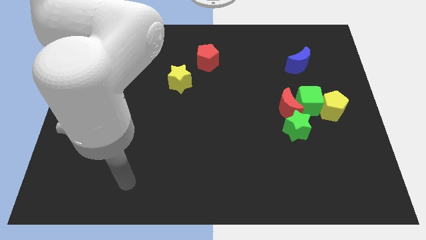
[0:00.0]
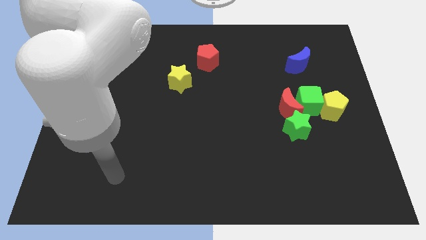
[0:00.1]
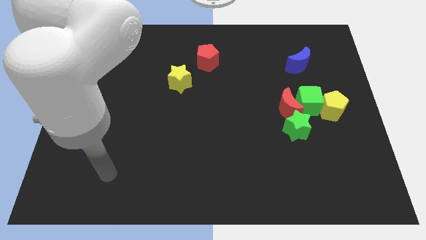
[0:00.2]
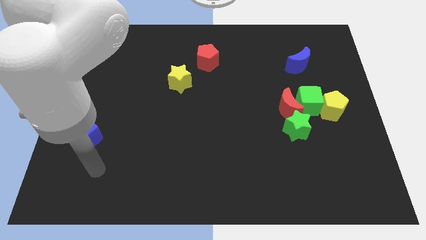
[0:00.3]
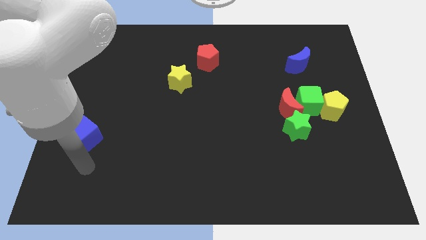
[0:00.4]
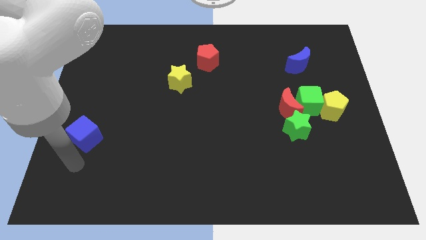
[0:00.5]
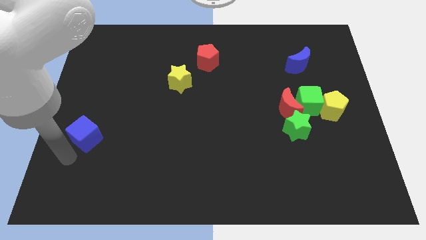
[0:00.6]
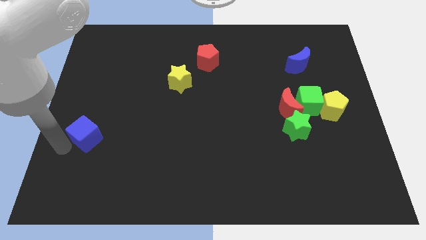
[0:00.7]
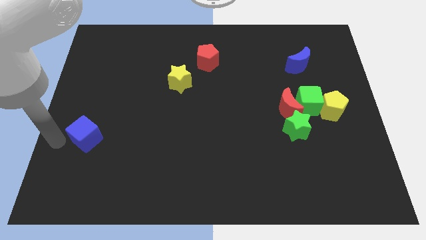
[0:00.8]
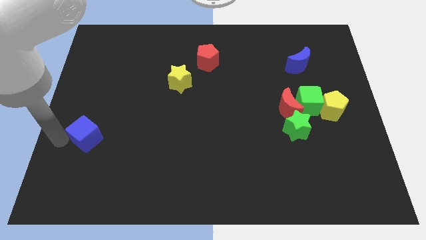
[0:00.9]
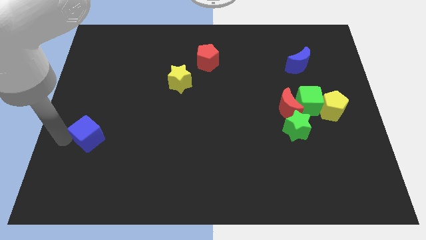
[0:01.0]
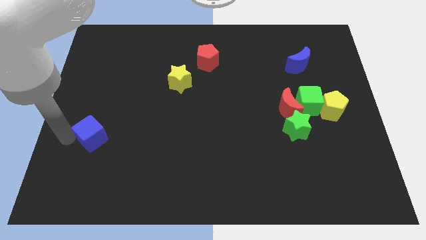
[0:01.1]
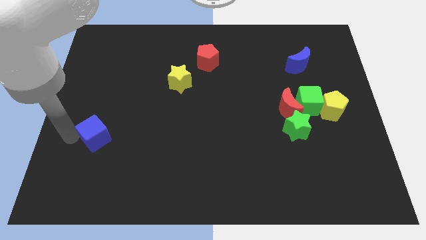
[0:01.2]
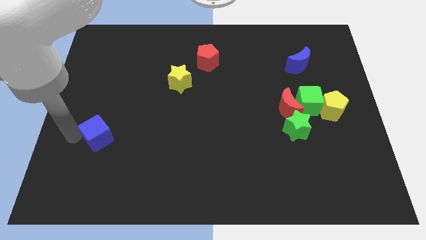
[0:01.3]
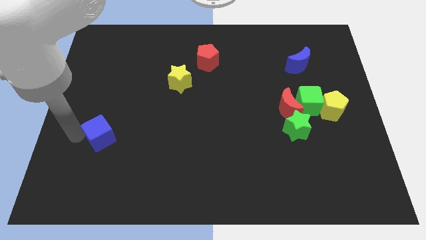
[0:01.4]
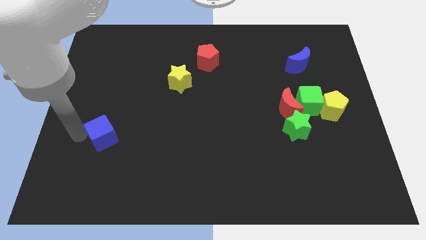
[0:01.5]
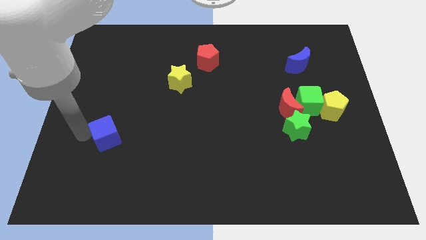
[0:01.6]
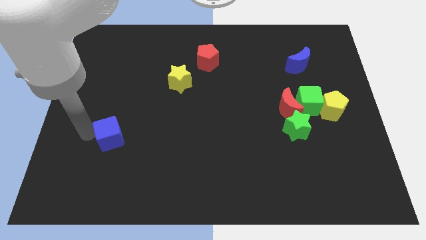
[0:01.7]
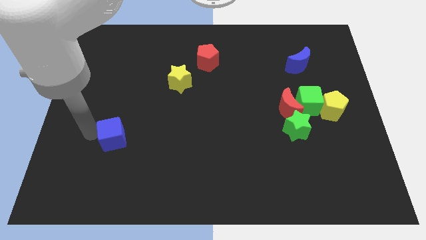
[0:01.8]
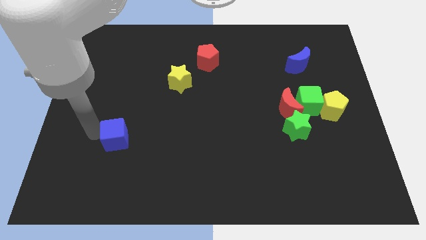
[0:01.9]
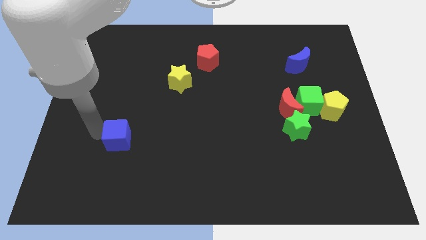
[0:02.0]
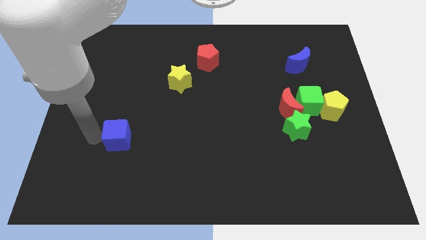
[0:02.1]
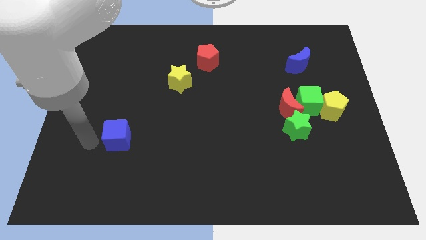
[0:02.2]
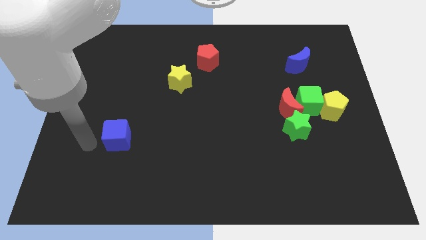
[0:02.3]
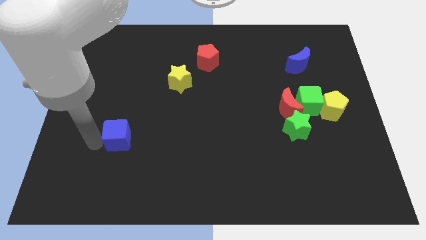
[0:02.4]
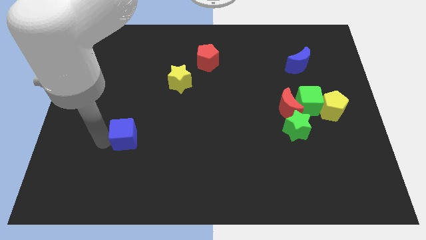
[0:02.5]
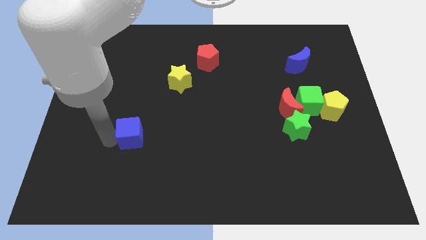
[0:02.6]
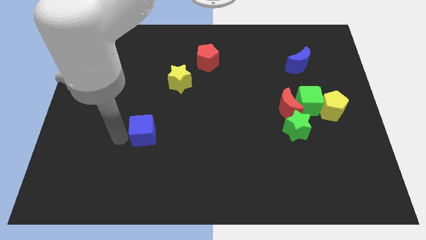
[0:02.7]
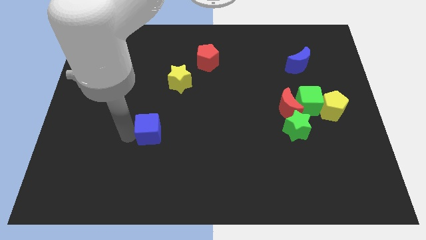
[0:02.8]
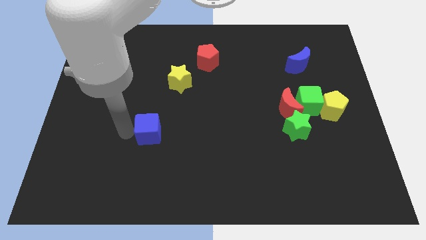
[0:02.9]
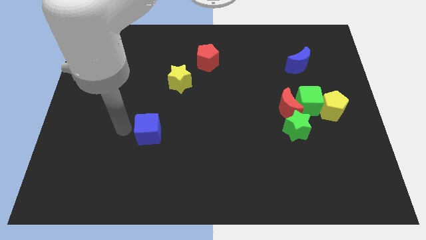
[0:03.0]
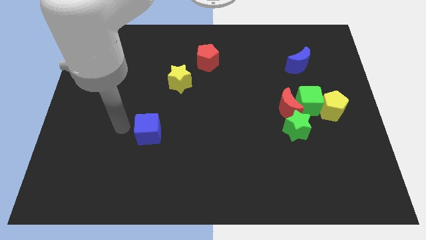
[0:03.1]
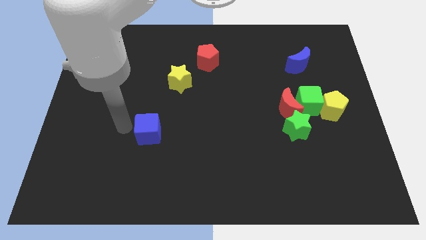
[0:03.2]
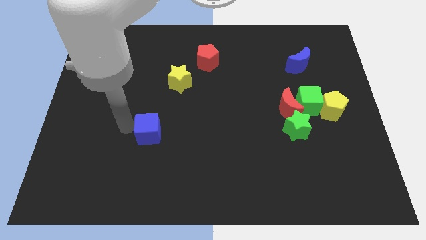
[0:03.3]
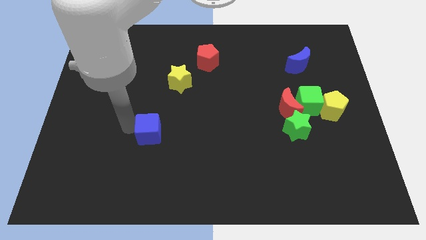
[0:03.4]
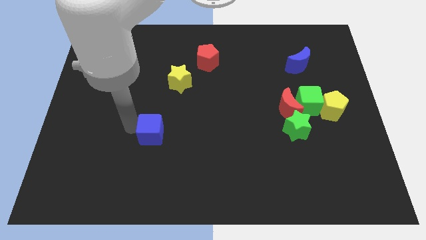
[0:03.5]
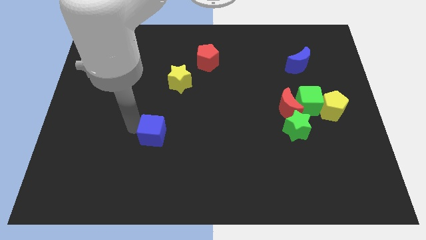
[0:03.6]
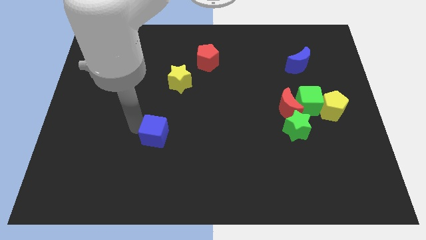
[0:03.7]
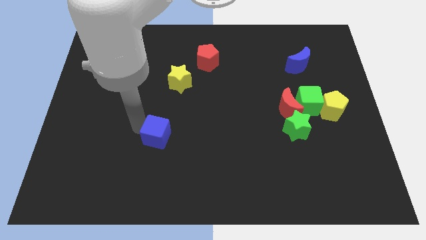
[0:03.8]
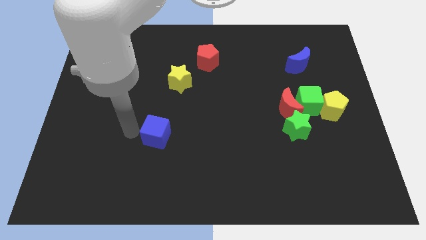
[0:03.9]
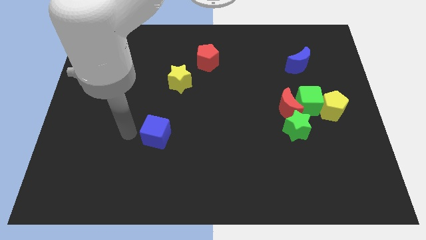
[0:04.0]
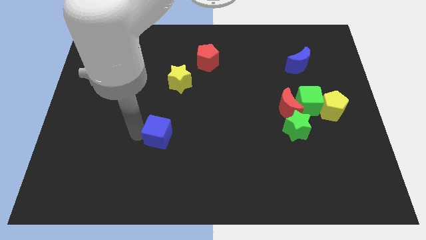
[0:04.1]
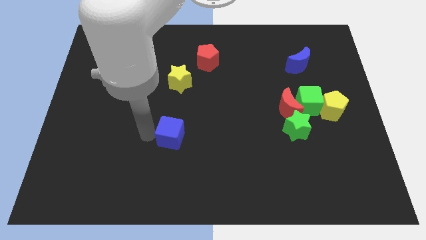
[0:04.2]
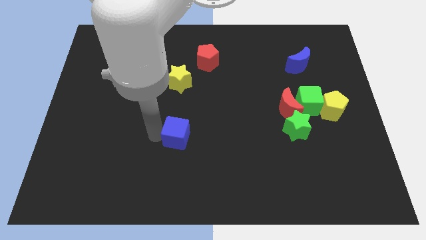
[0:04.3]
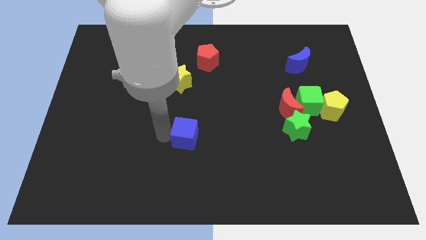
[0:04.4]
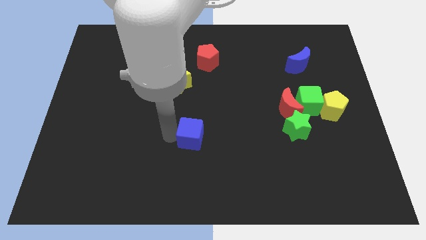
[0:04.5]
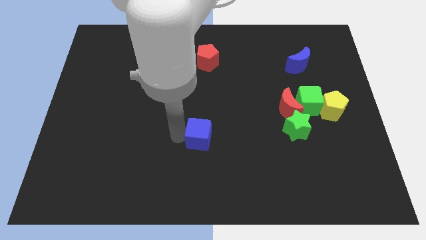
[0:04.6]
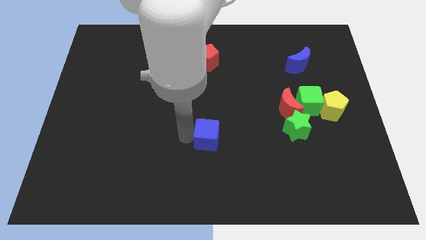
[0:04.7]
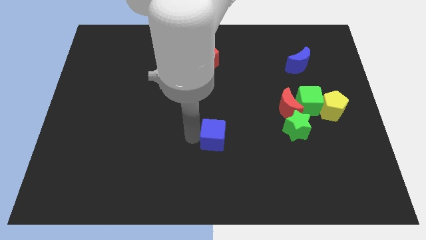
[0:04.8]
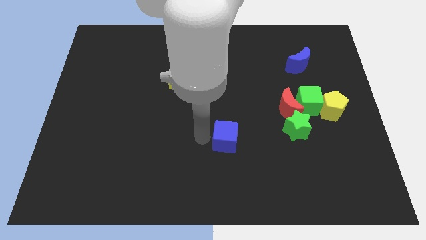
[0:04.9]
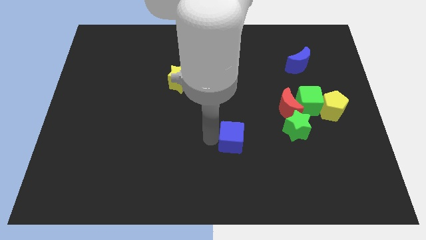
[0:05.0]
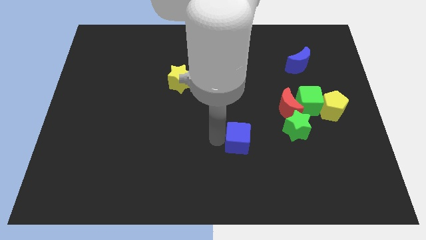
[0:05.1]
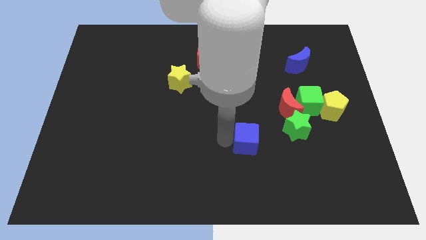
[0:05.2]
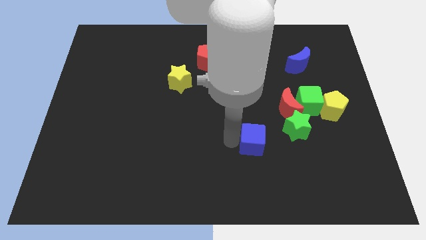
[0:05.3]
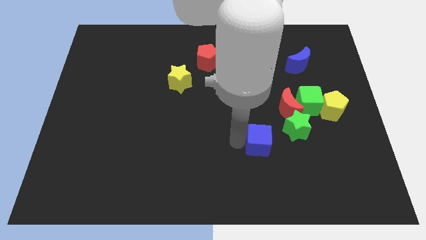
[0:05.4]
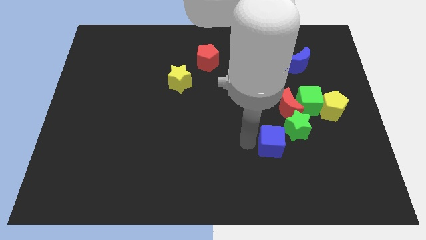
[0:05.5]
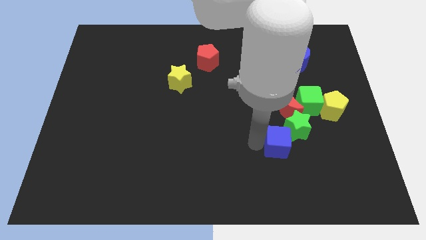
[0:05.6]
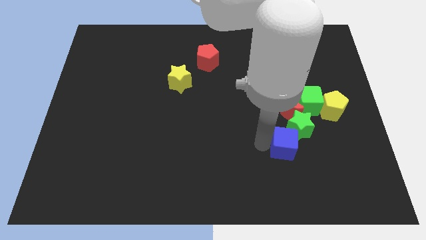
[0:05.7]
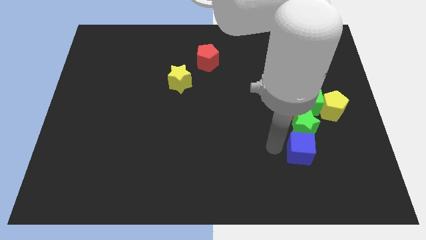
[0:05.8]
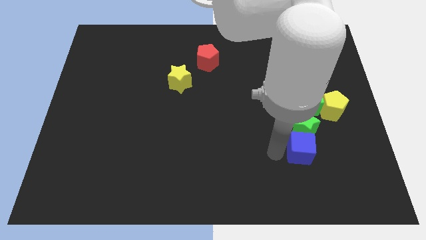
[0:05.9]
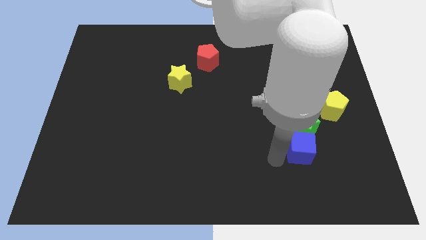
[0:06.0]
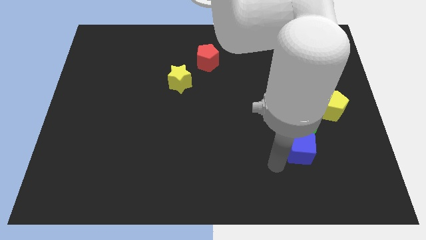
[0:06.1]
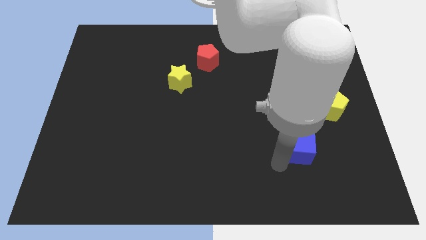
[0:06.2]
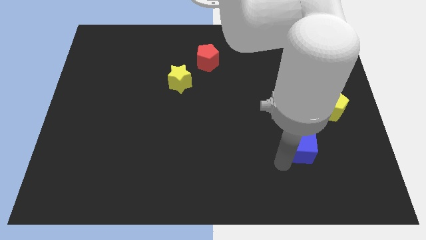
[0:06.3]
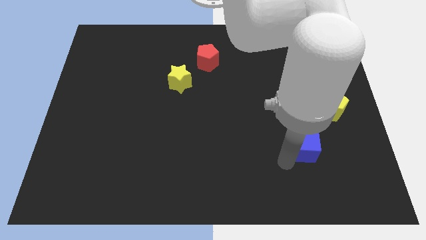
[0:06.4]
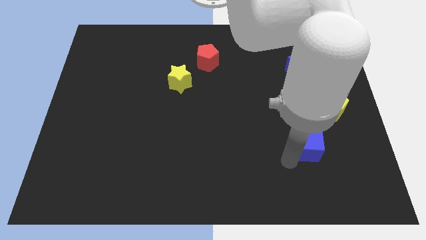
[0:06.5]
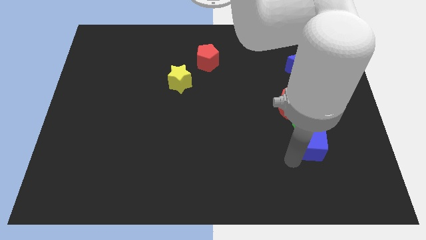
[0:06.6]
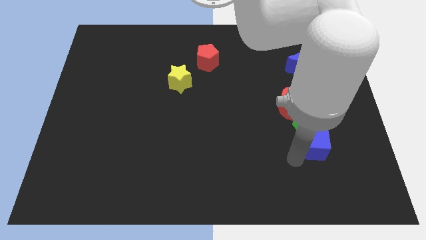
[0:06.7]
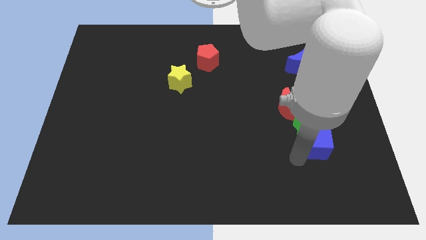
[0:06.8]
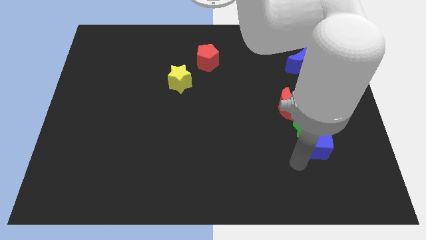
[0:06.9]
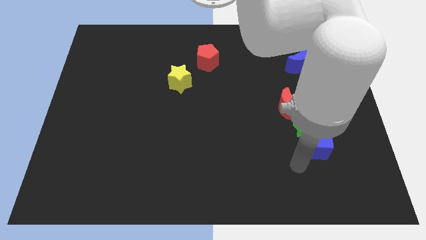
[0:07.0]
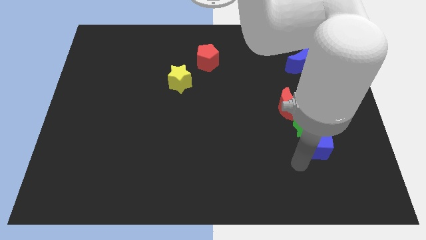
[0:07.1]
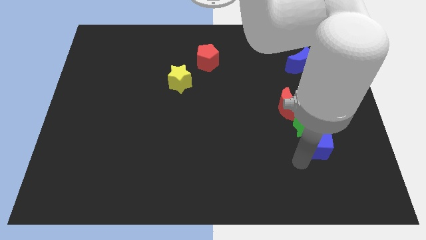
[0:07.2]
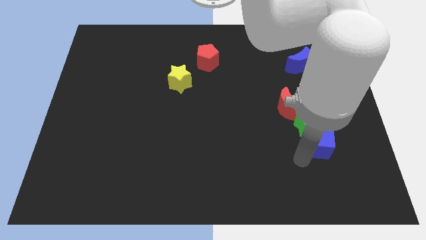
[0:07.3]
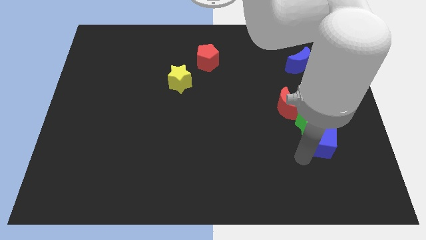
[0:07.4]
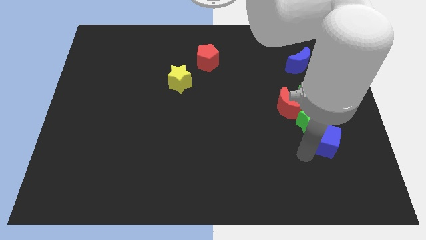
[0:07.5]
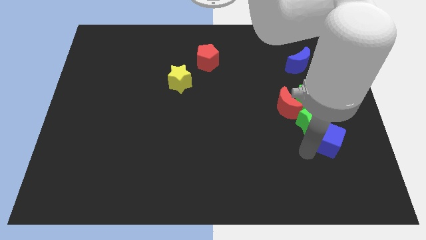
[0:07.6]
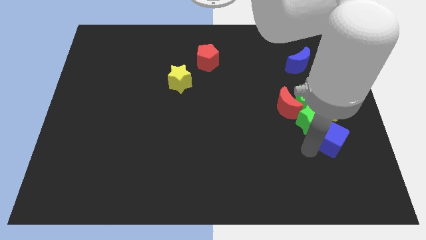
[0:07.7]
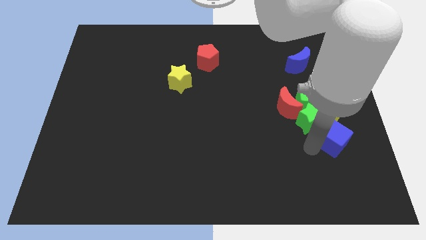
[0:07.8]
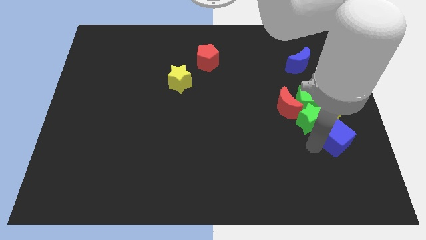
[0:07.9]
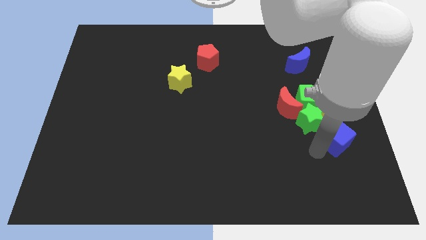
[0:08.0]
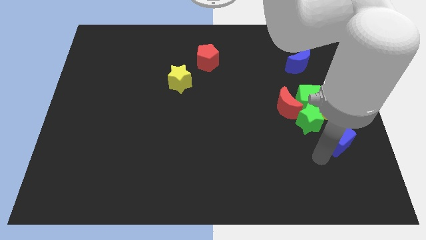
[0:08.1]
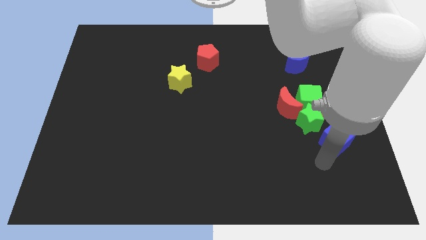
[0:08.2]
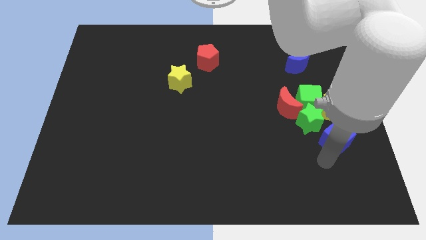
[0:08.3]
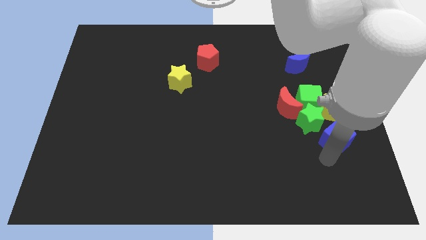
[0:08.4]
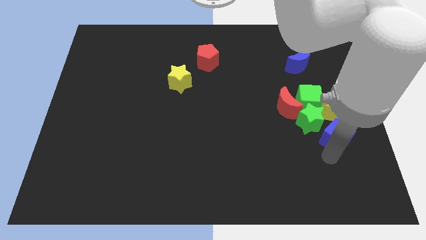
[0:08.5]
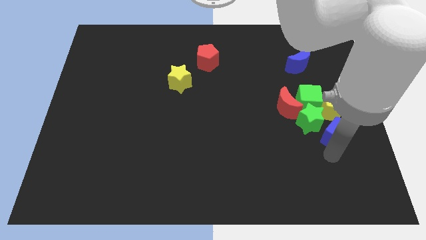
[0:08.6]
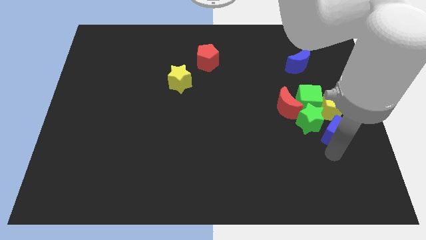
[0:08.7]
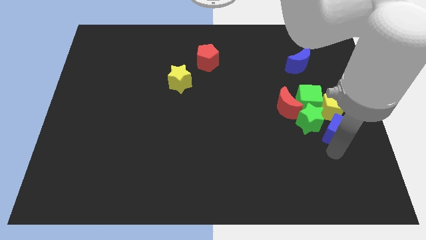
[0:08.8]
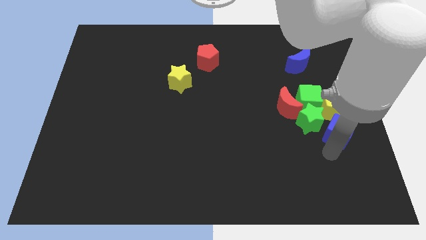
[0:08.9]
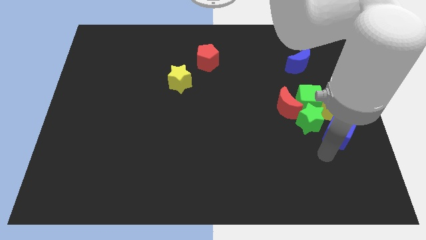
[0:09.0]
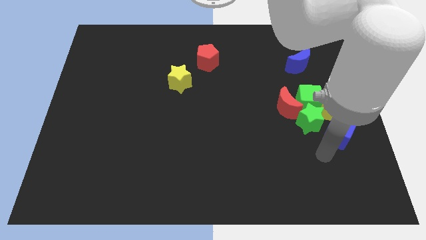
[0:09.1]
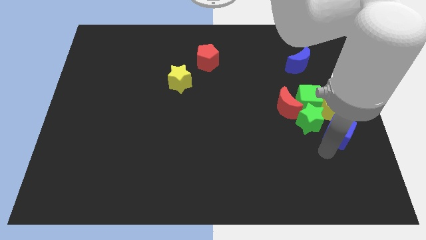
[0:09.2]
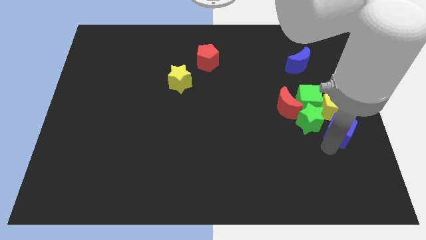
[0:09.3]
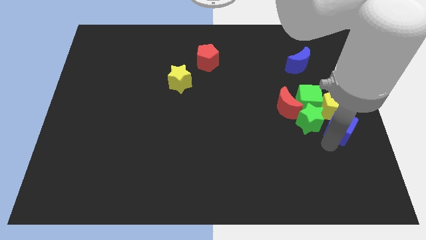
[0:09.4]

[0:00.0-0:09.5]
push the blue cube to the right side of the board
